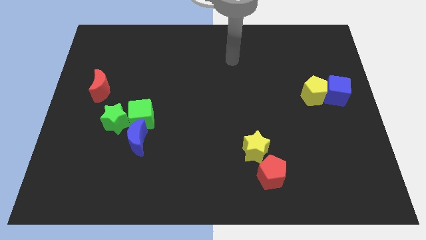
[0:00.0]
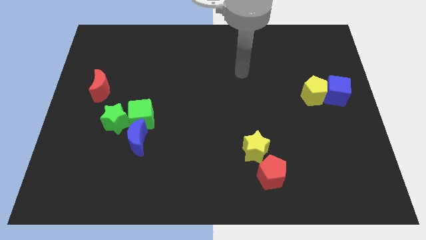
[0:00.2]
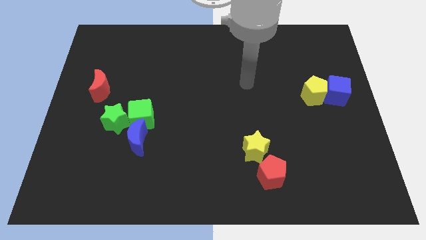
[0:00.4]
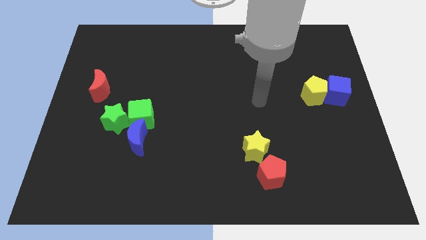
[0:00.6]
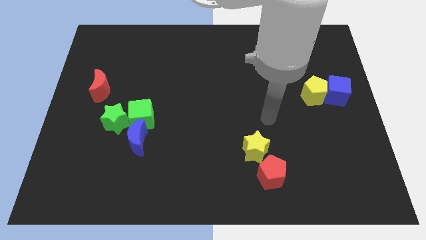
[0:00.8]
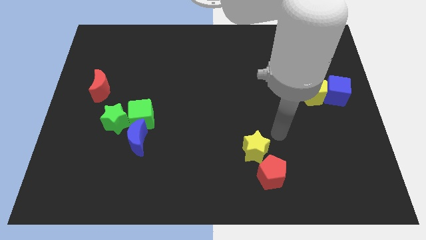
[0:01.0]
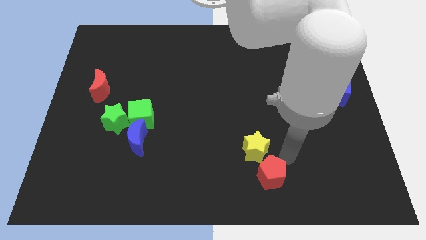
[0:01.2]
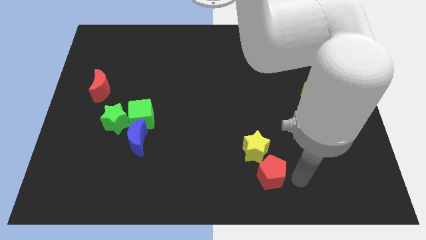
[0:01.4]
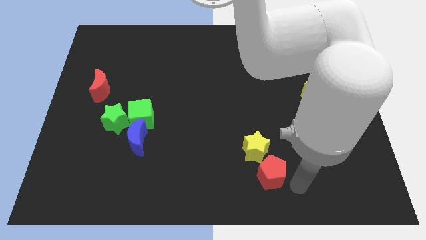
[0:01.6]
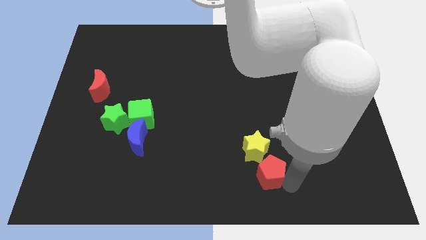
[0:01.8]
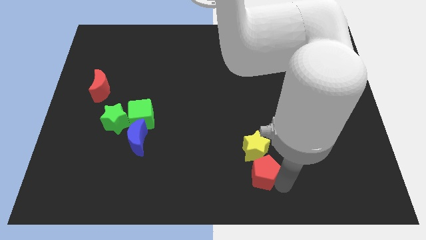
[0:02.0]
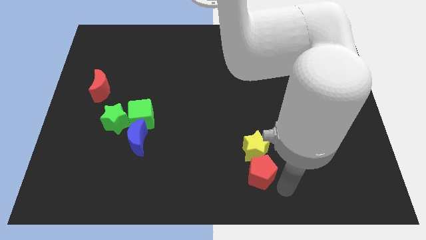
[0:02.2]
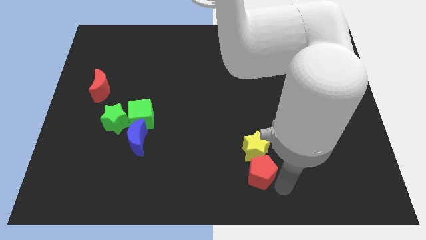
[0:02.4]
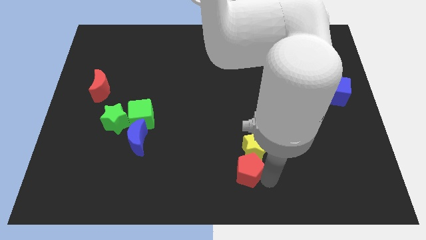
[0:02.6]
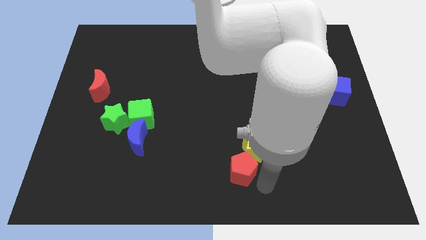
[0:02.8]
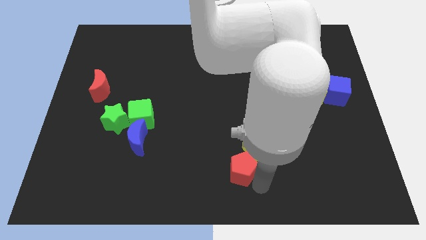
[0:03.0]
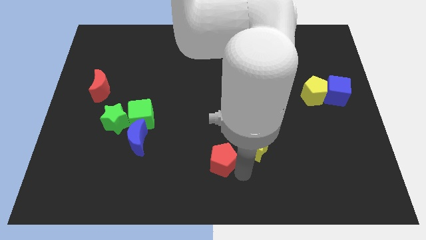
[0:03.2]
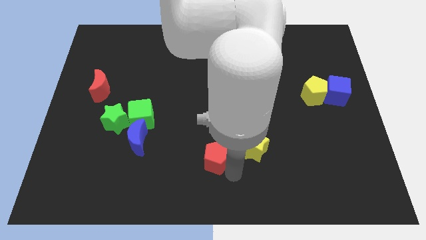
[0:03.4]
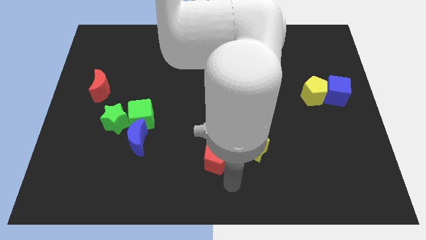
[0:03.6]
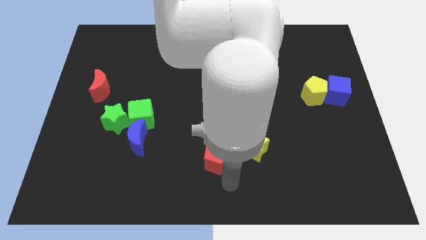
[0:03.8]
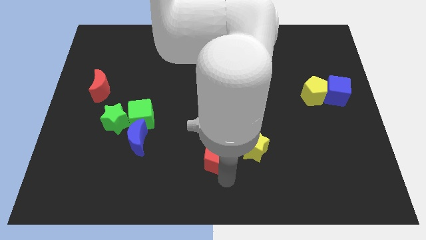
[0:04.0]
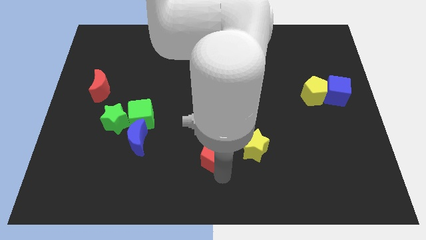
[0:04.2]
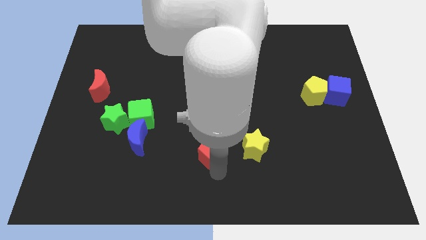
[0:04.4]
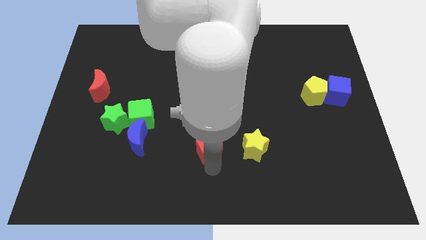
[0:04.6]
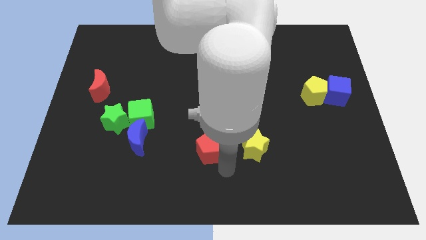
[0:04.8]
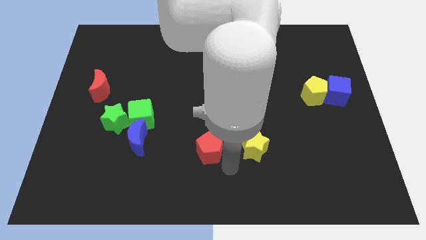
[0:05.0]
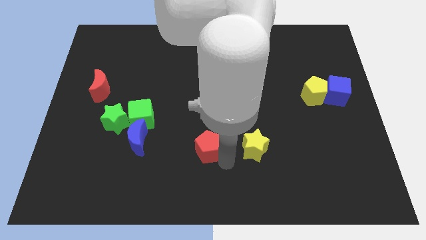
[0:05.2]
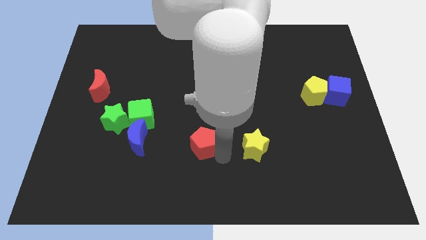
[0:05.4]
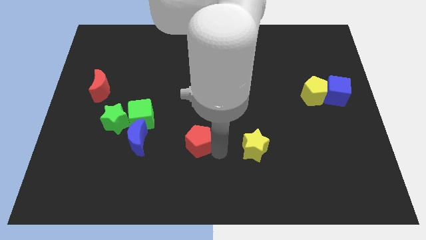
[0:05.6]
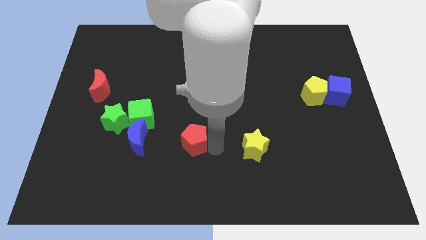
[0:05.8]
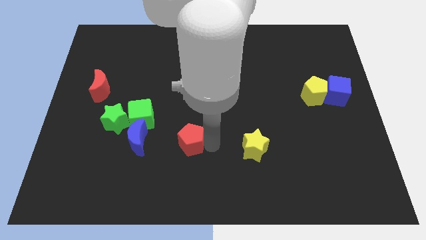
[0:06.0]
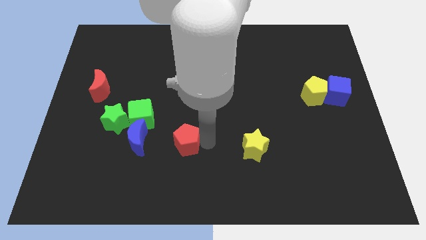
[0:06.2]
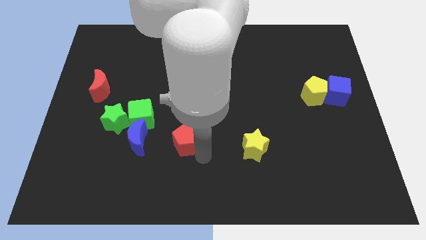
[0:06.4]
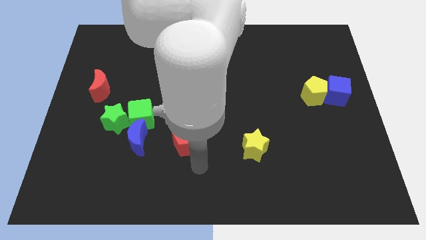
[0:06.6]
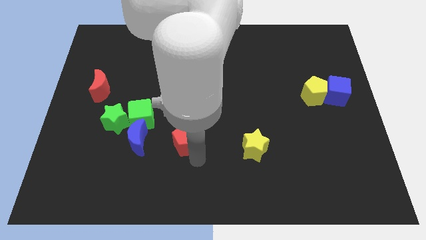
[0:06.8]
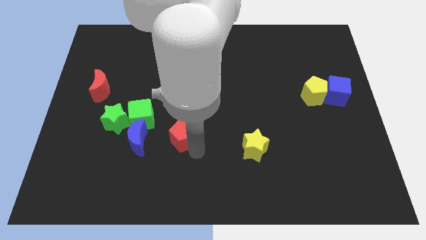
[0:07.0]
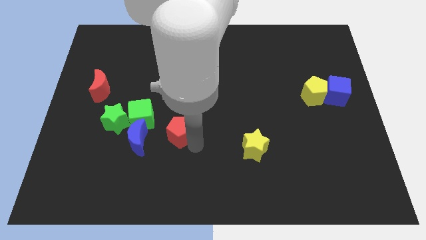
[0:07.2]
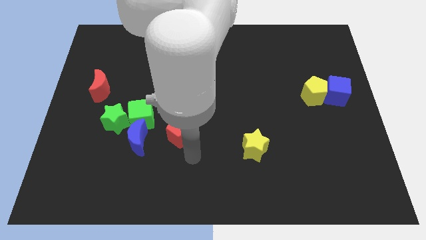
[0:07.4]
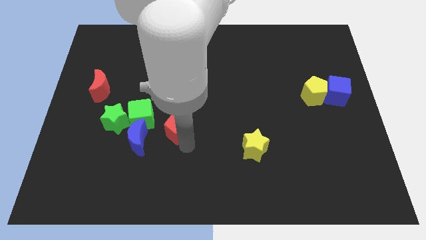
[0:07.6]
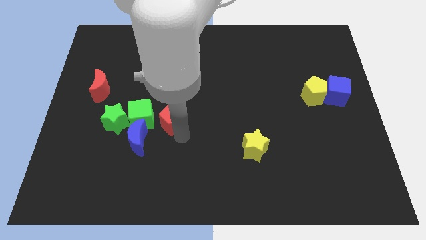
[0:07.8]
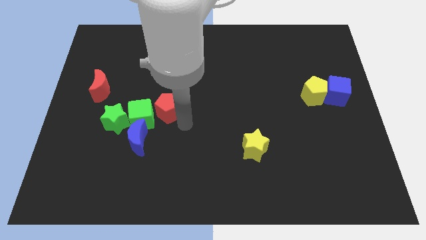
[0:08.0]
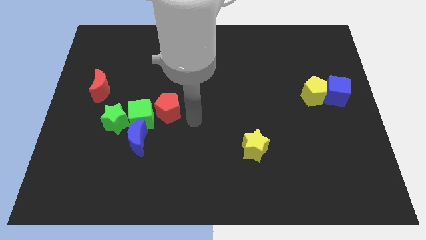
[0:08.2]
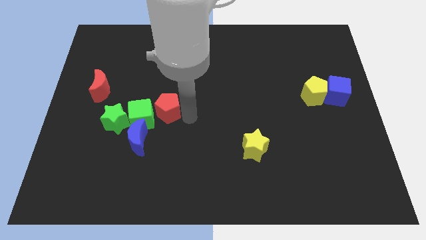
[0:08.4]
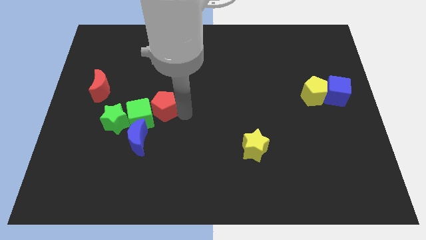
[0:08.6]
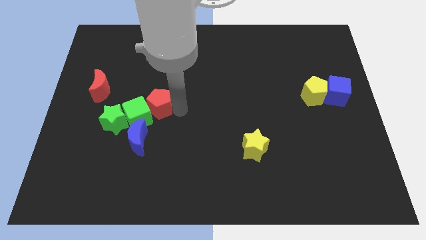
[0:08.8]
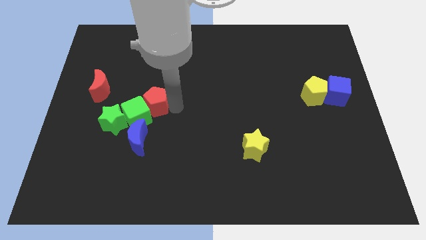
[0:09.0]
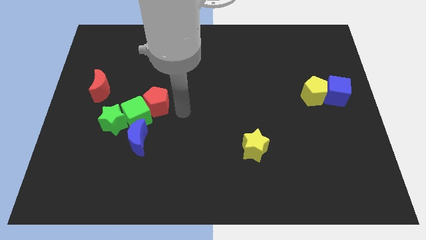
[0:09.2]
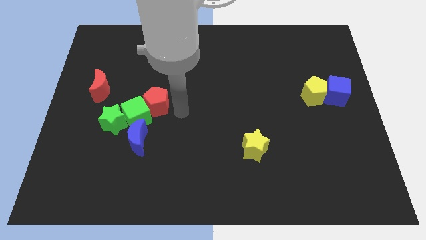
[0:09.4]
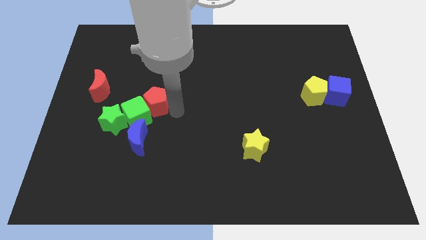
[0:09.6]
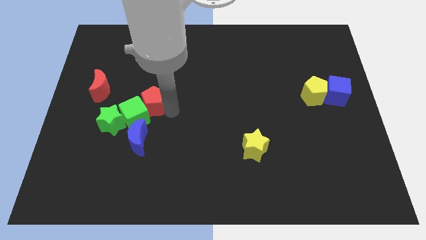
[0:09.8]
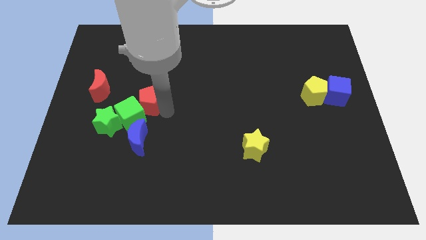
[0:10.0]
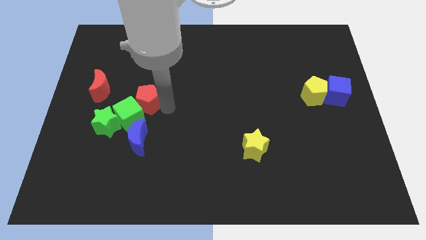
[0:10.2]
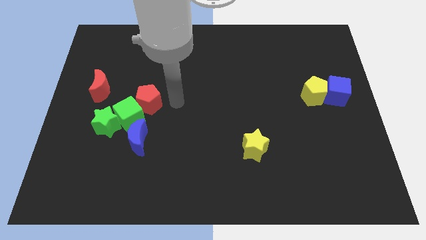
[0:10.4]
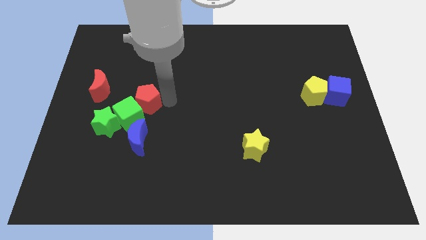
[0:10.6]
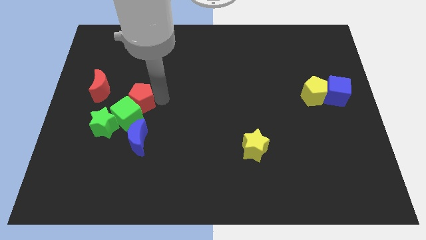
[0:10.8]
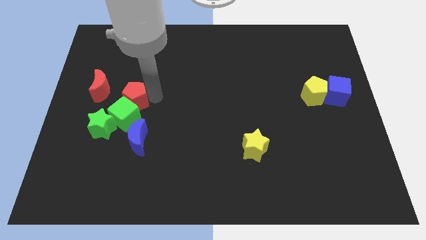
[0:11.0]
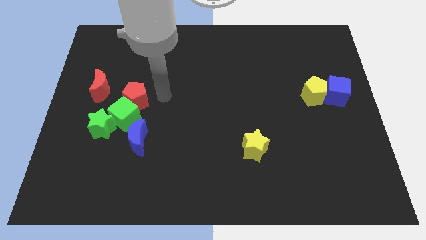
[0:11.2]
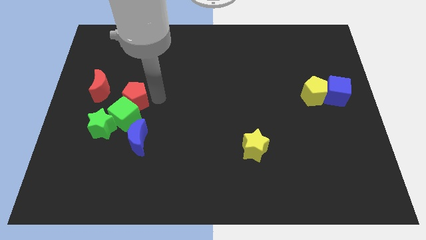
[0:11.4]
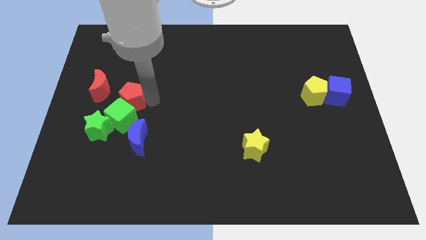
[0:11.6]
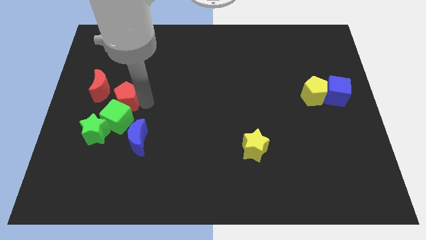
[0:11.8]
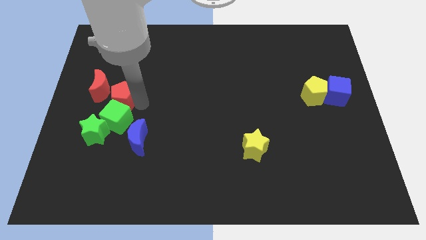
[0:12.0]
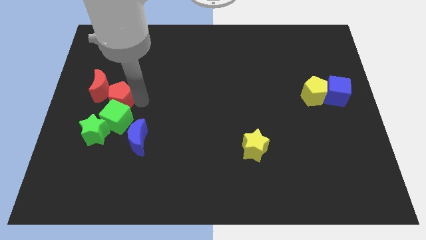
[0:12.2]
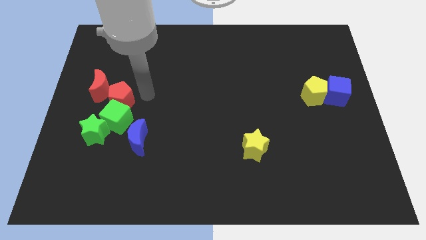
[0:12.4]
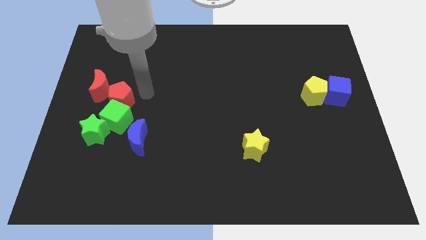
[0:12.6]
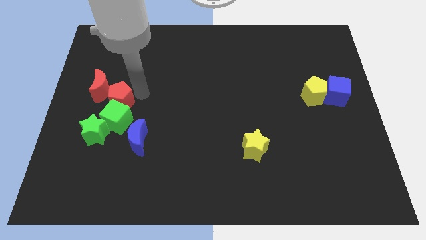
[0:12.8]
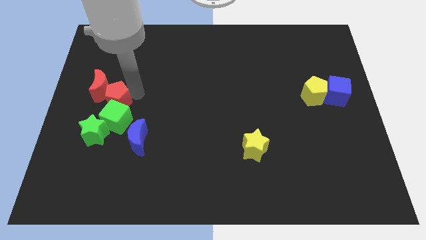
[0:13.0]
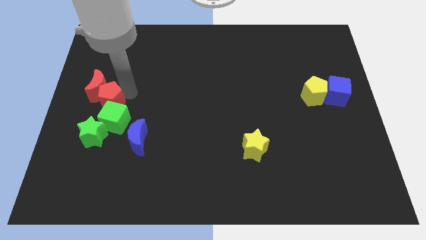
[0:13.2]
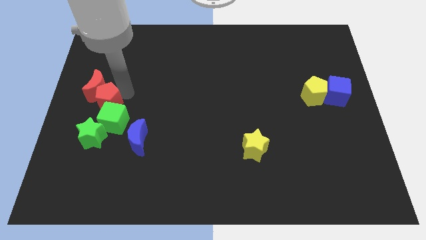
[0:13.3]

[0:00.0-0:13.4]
move the red pentagon to the left side
